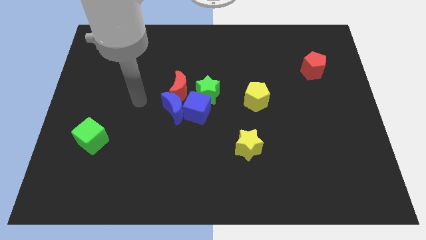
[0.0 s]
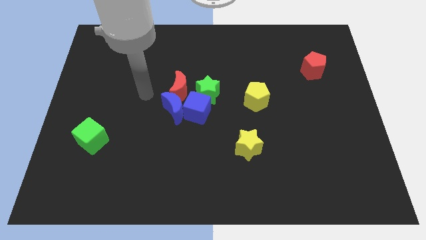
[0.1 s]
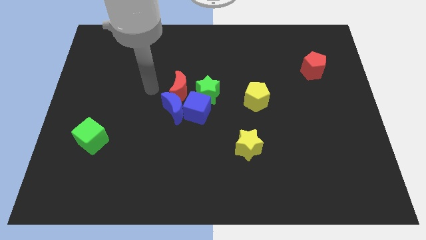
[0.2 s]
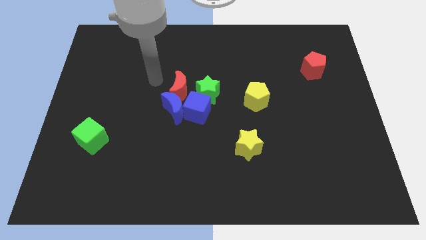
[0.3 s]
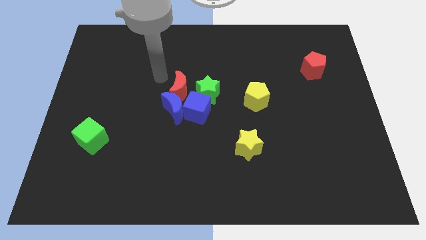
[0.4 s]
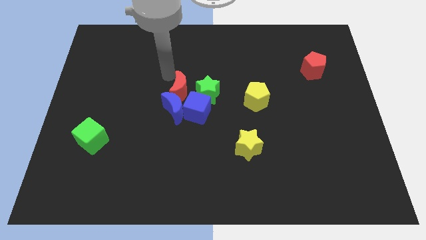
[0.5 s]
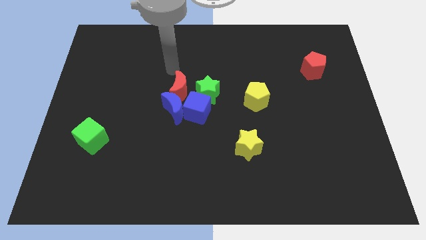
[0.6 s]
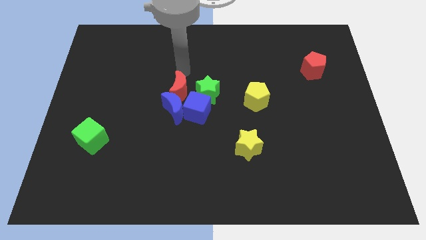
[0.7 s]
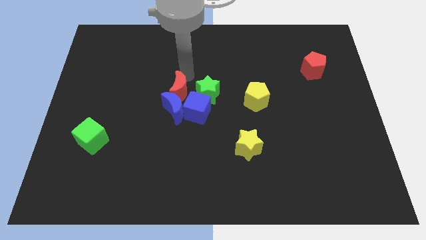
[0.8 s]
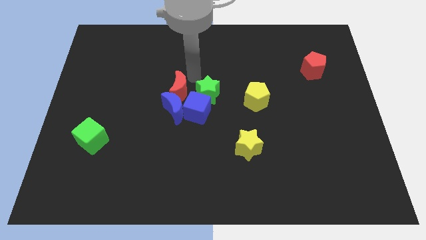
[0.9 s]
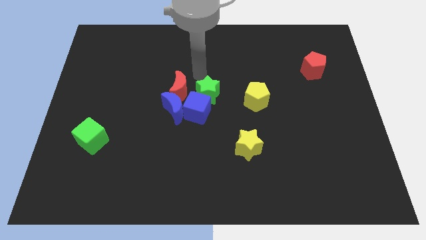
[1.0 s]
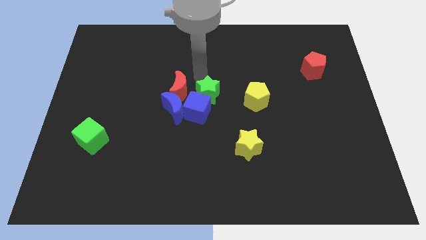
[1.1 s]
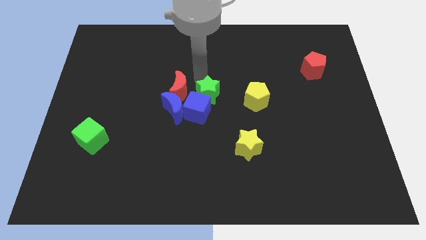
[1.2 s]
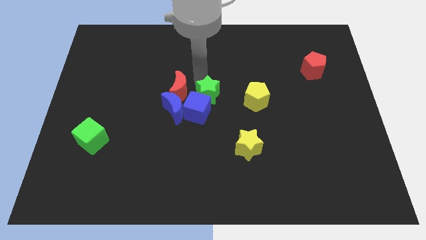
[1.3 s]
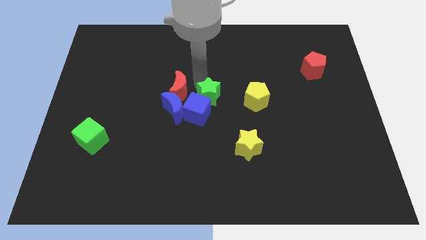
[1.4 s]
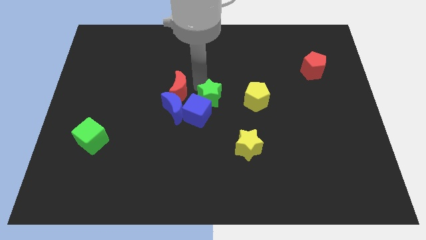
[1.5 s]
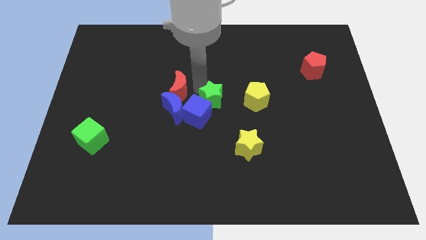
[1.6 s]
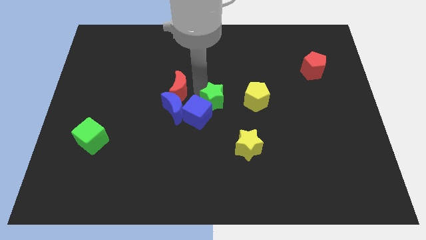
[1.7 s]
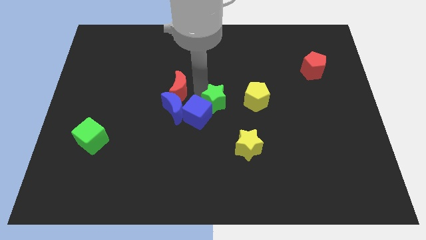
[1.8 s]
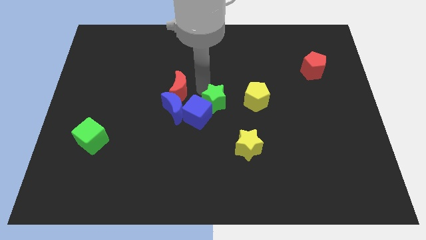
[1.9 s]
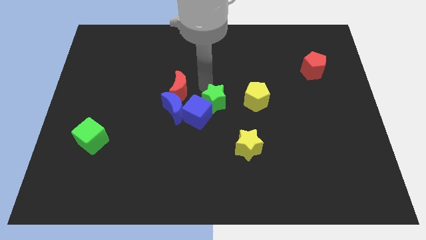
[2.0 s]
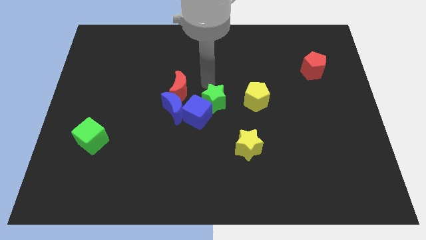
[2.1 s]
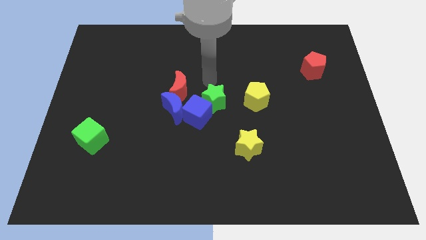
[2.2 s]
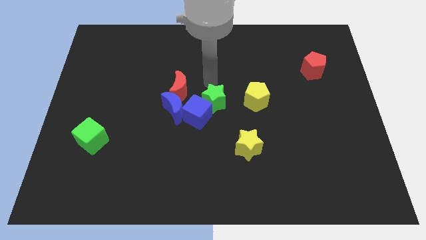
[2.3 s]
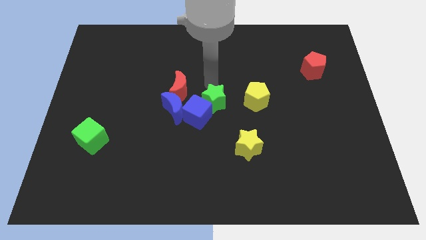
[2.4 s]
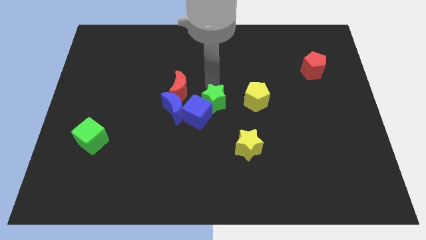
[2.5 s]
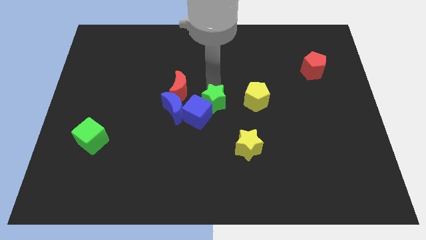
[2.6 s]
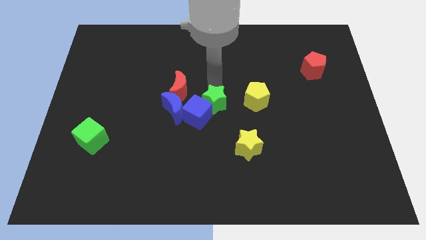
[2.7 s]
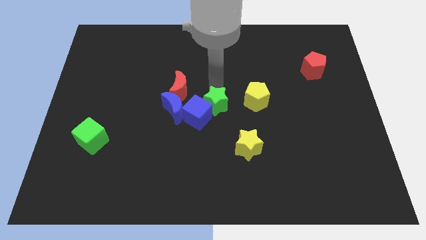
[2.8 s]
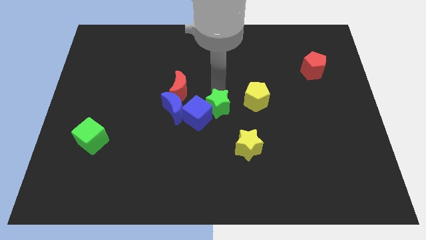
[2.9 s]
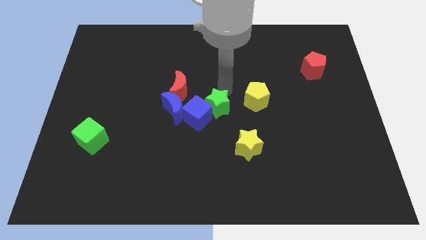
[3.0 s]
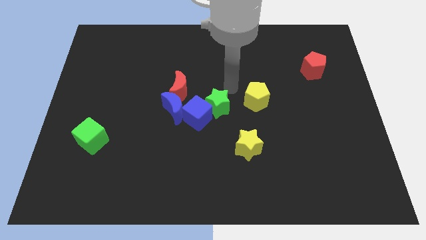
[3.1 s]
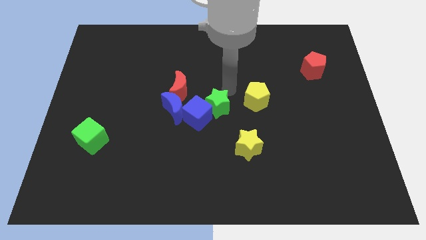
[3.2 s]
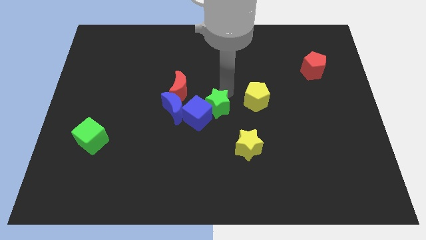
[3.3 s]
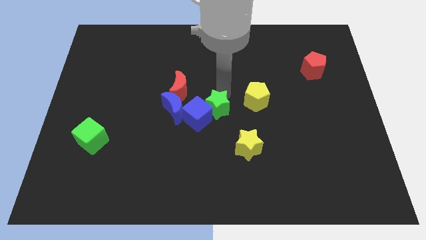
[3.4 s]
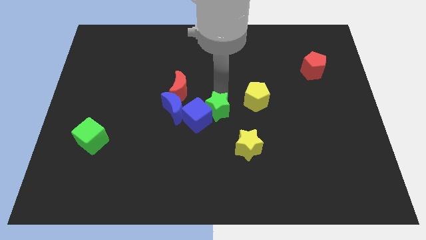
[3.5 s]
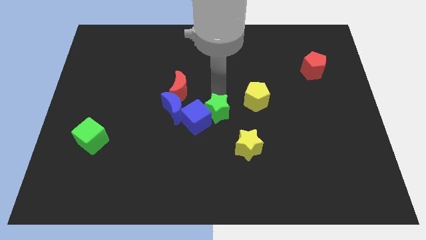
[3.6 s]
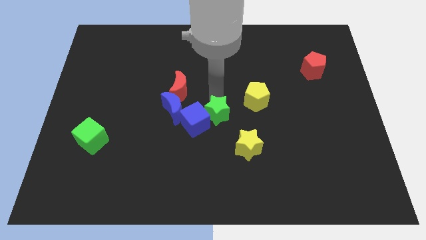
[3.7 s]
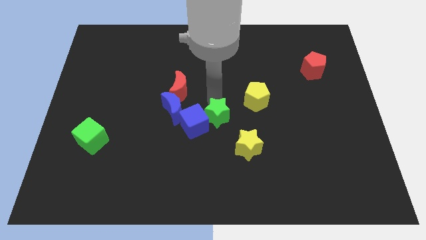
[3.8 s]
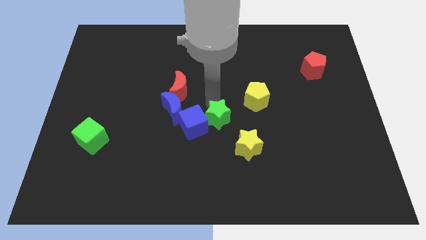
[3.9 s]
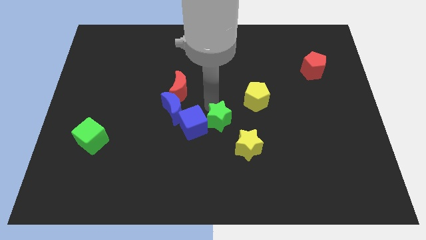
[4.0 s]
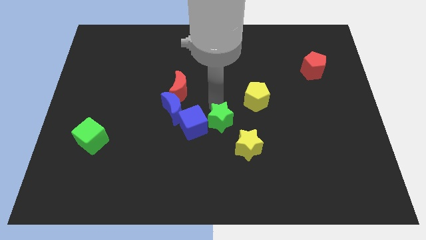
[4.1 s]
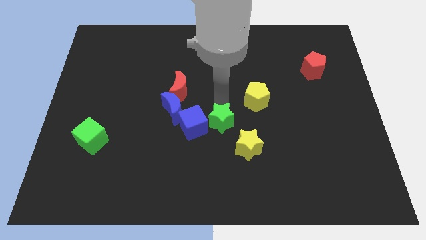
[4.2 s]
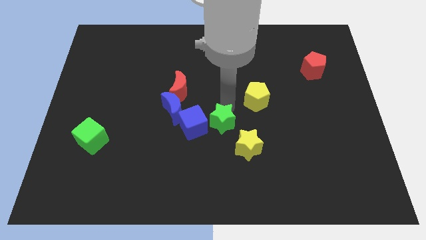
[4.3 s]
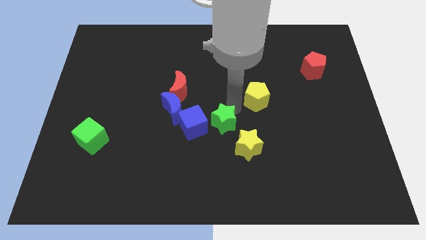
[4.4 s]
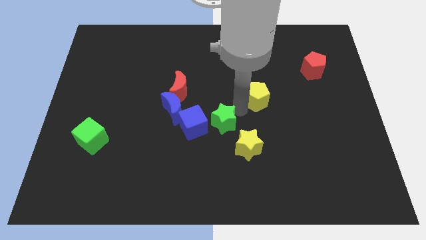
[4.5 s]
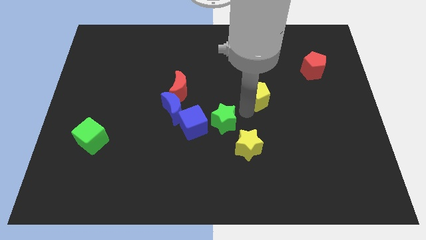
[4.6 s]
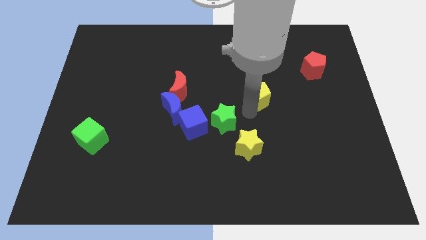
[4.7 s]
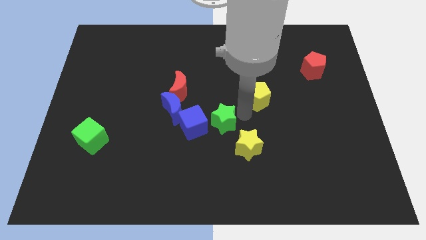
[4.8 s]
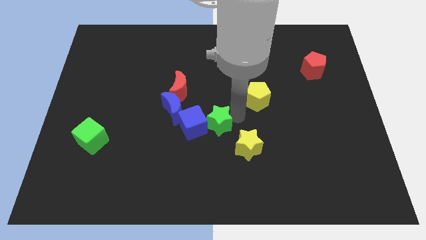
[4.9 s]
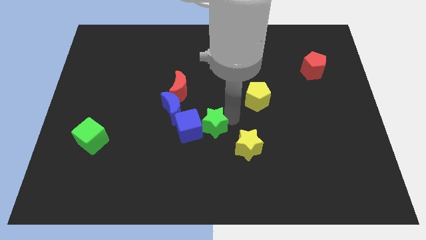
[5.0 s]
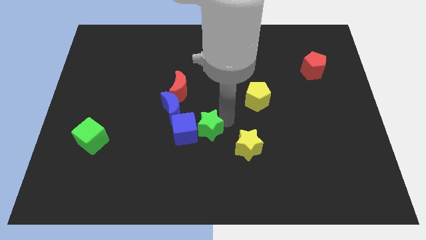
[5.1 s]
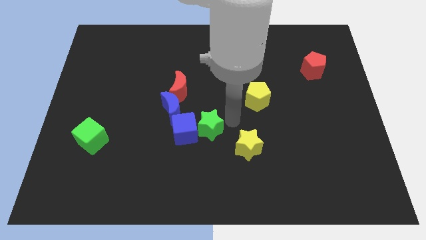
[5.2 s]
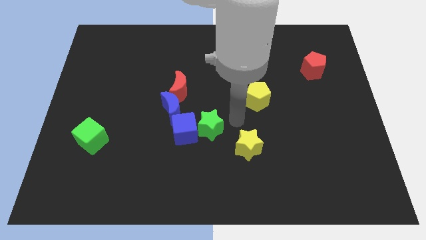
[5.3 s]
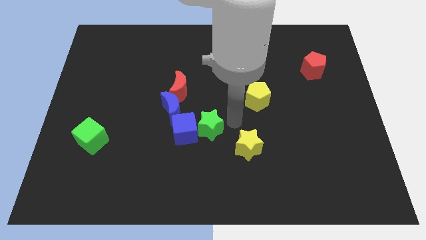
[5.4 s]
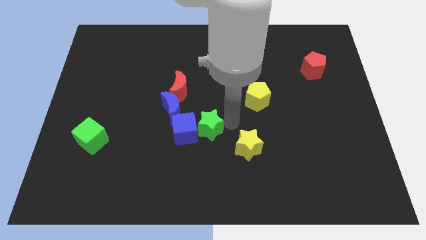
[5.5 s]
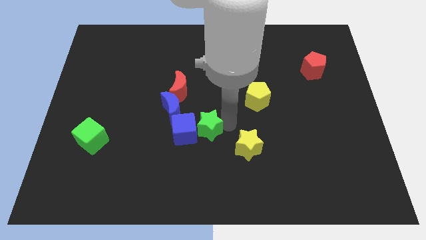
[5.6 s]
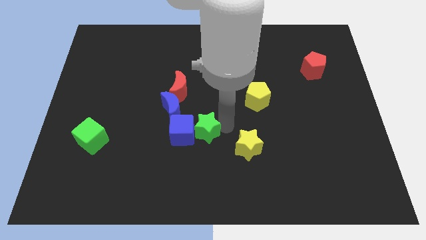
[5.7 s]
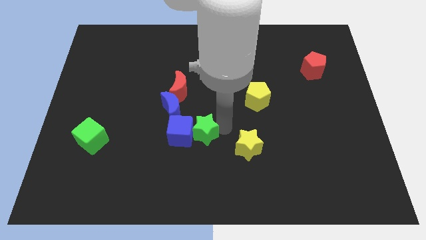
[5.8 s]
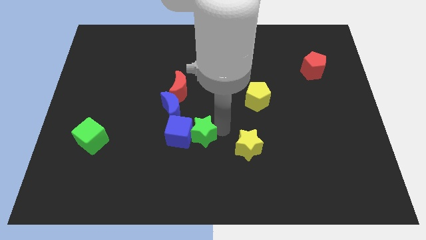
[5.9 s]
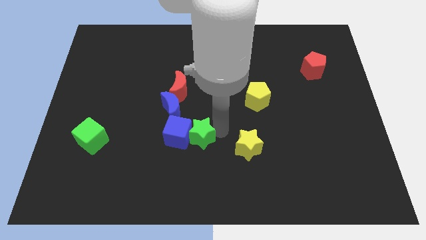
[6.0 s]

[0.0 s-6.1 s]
slide the green star down and to the left diagonally a bit

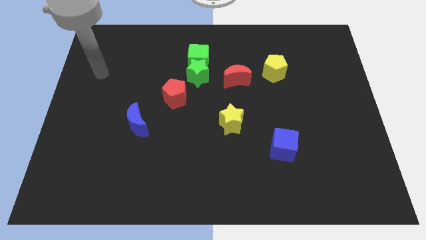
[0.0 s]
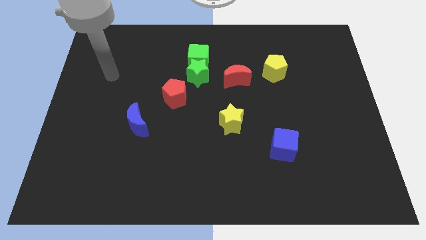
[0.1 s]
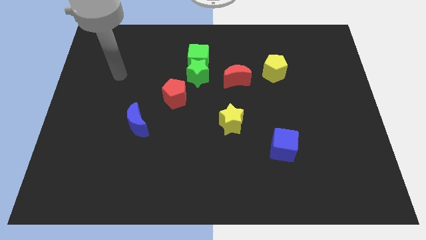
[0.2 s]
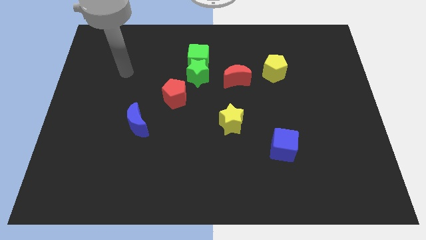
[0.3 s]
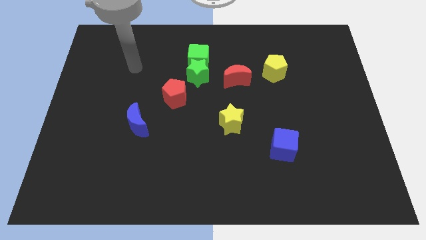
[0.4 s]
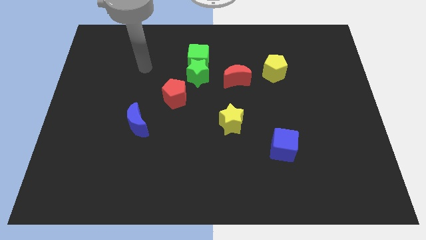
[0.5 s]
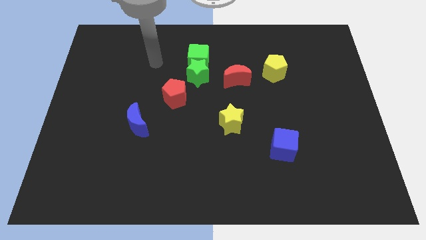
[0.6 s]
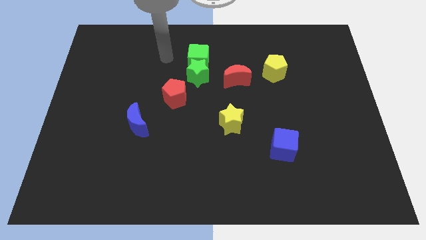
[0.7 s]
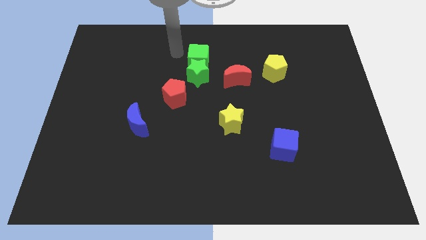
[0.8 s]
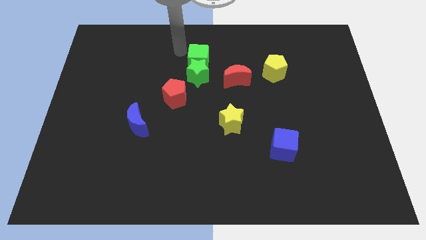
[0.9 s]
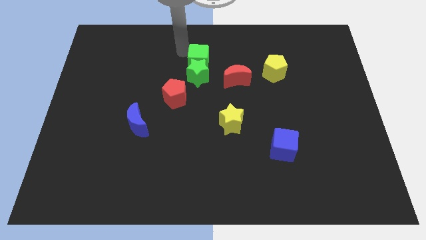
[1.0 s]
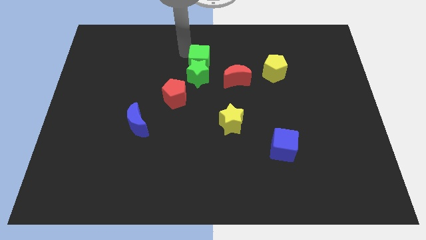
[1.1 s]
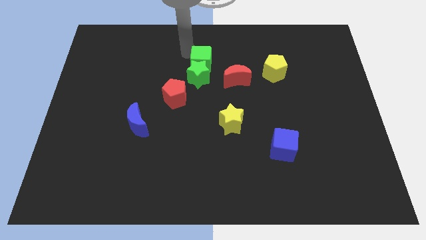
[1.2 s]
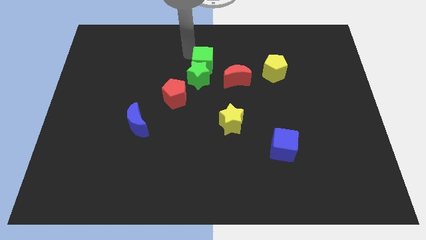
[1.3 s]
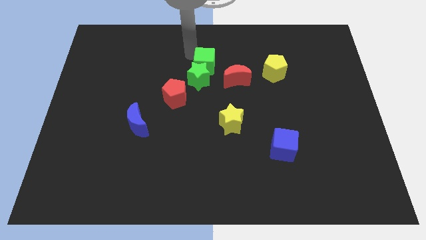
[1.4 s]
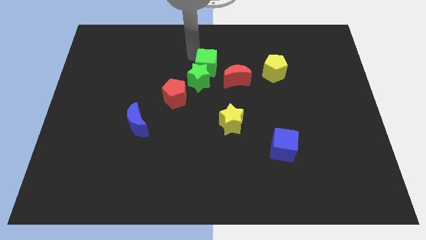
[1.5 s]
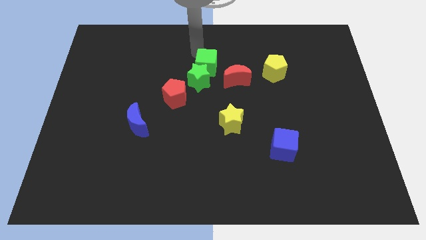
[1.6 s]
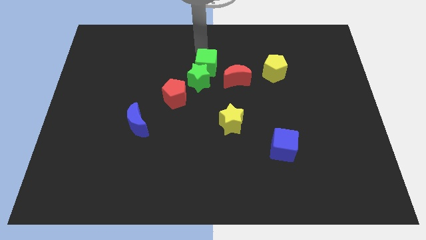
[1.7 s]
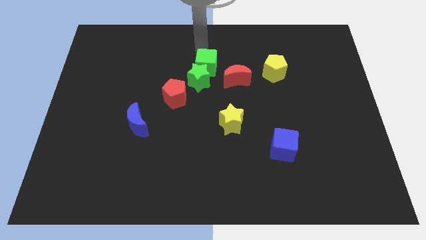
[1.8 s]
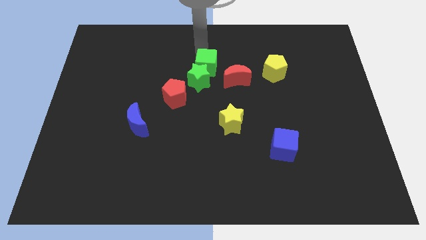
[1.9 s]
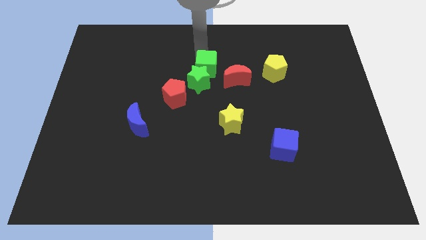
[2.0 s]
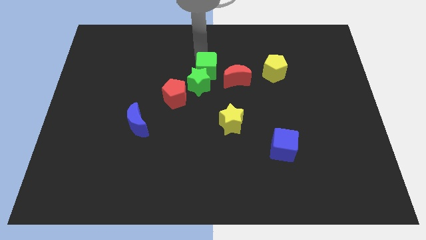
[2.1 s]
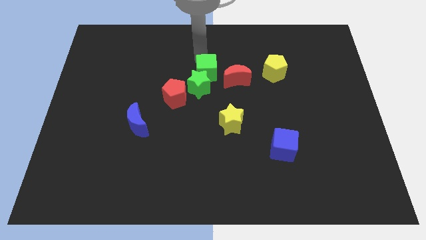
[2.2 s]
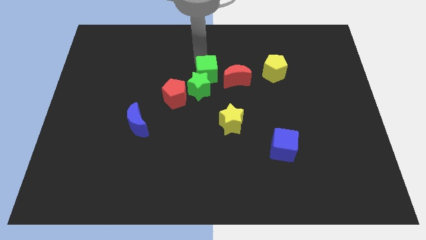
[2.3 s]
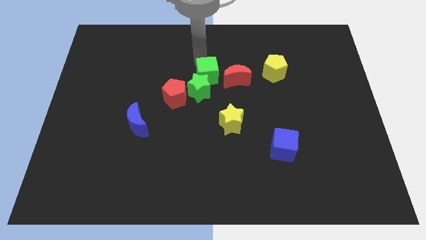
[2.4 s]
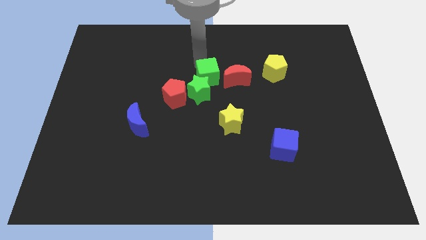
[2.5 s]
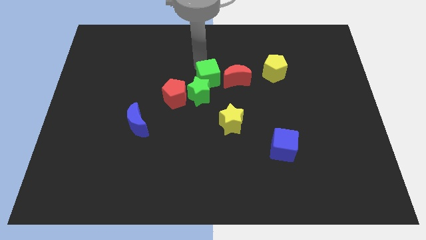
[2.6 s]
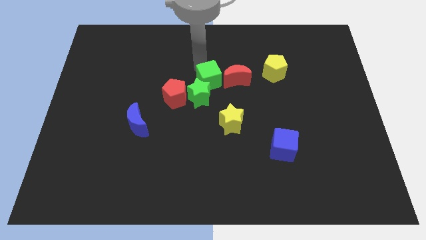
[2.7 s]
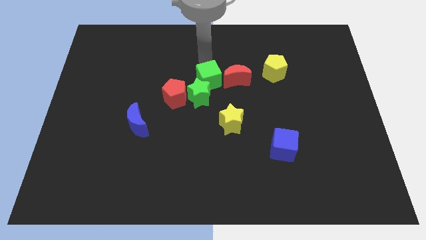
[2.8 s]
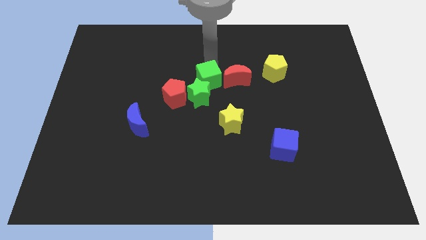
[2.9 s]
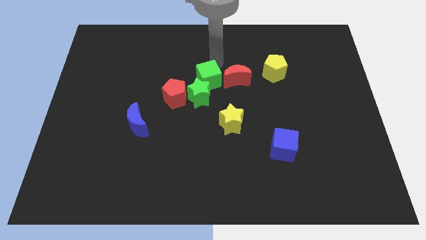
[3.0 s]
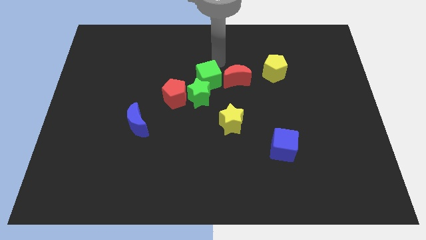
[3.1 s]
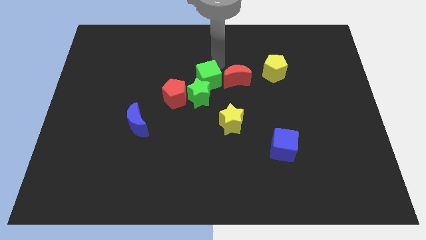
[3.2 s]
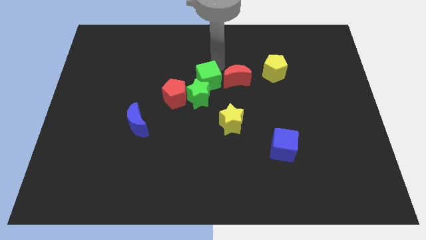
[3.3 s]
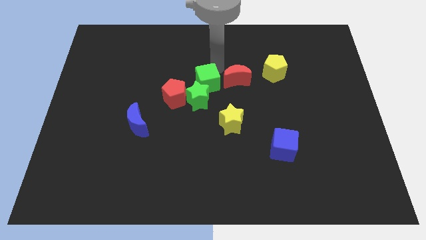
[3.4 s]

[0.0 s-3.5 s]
slightly slide the green cube down
